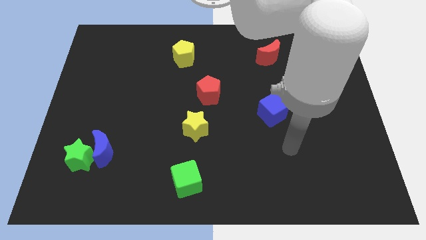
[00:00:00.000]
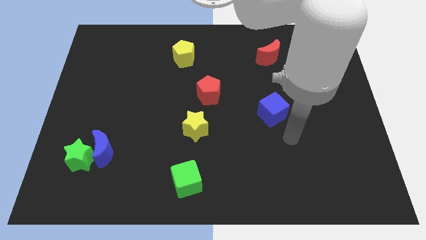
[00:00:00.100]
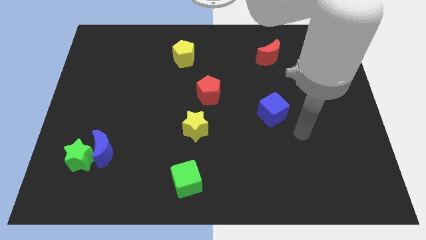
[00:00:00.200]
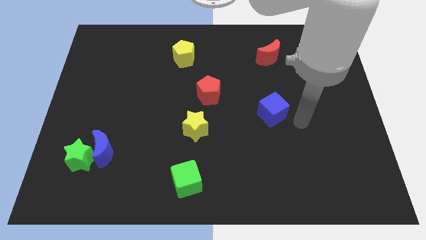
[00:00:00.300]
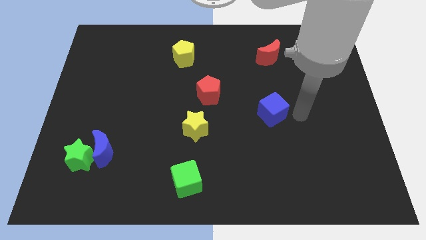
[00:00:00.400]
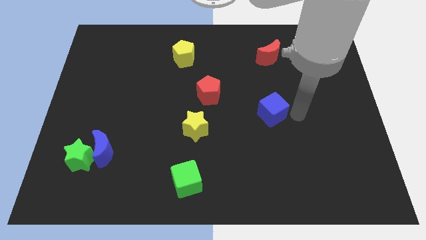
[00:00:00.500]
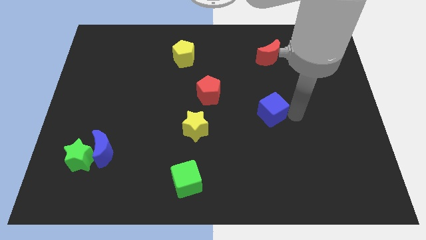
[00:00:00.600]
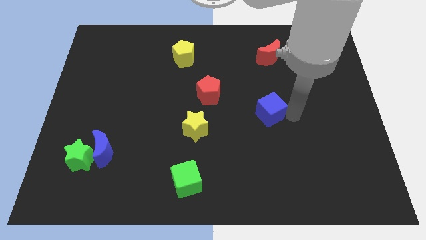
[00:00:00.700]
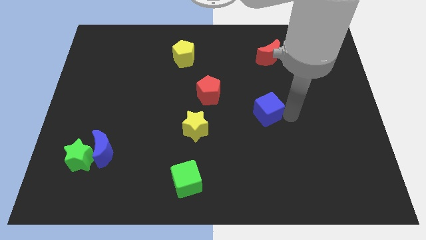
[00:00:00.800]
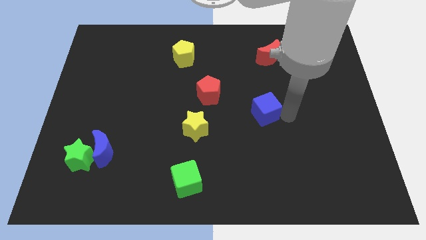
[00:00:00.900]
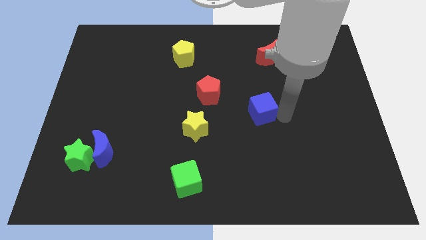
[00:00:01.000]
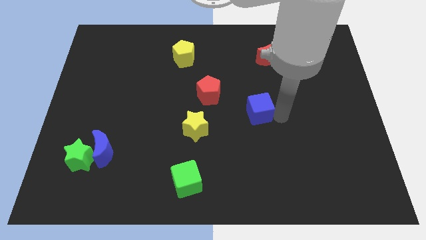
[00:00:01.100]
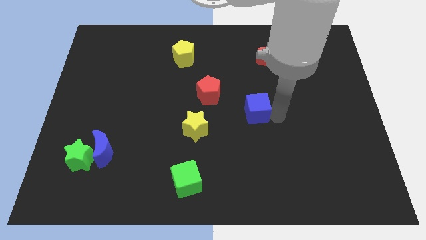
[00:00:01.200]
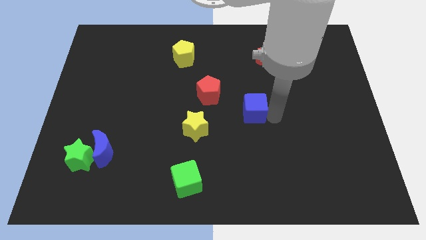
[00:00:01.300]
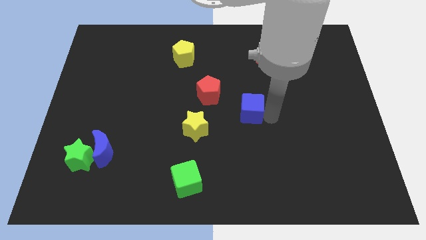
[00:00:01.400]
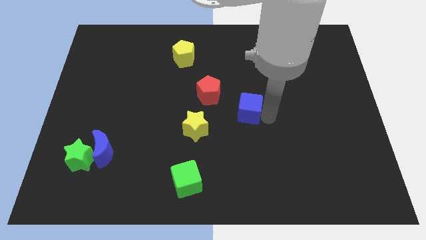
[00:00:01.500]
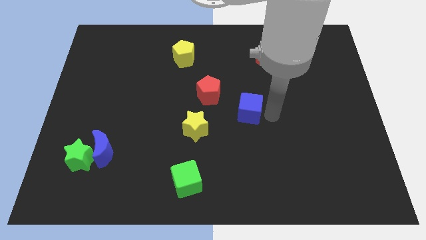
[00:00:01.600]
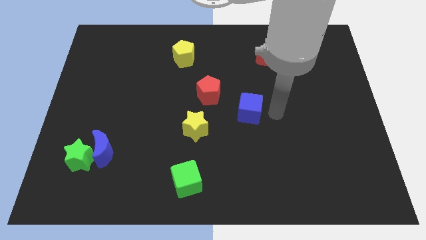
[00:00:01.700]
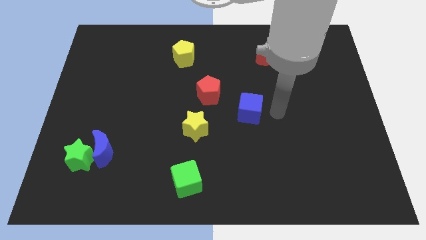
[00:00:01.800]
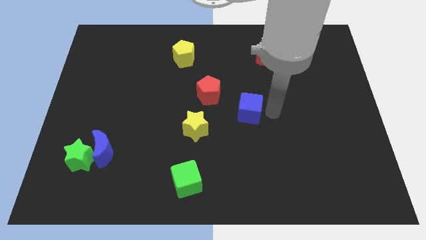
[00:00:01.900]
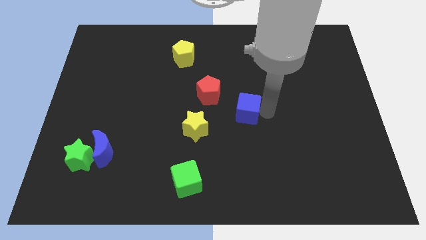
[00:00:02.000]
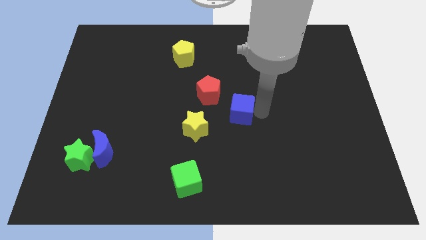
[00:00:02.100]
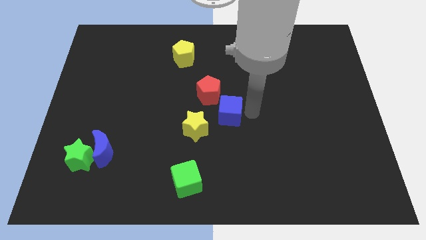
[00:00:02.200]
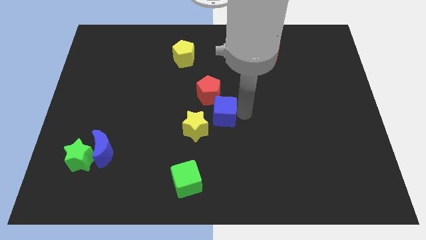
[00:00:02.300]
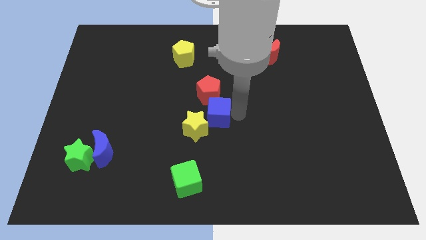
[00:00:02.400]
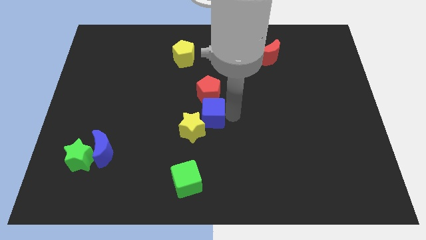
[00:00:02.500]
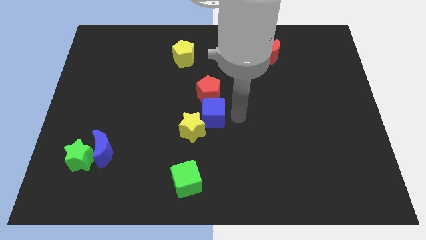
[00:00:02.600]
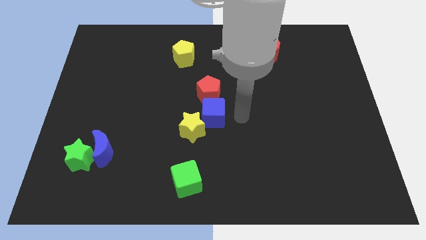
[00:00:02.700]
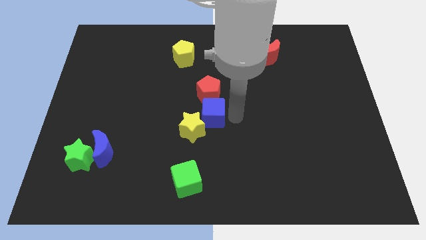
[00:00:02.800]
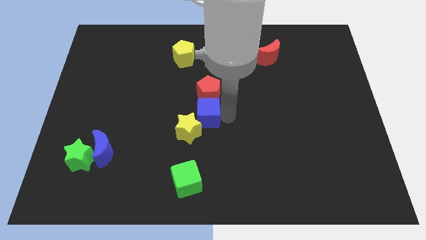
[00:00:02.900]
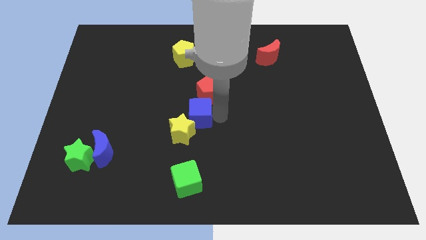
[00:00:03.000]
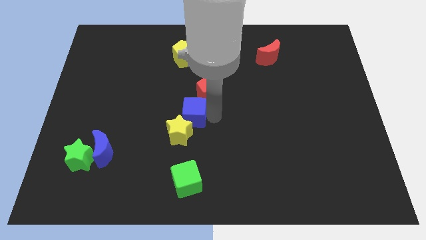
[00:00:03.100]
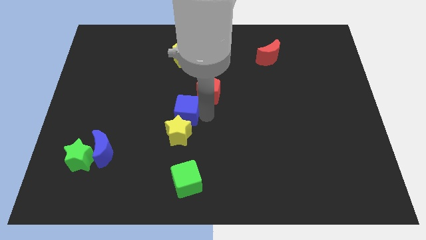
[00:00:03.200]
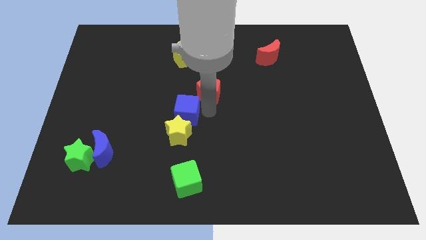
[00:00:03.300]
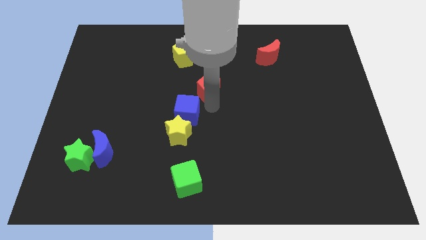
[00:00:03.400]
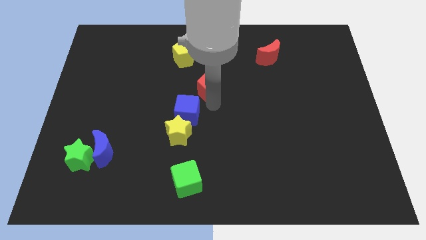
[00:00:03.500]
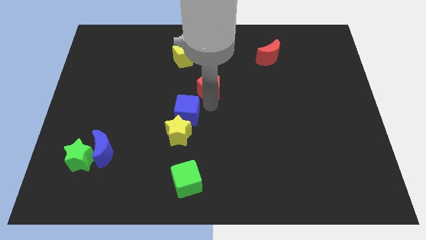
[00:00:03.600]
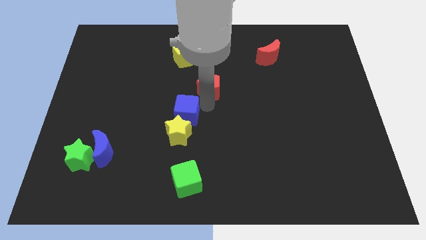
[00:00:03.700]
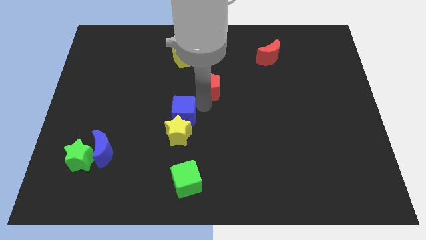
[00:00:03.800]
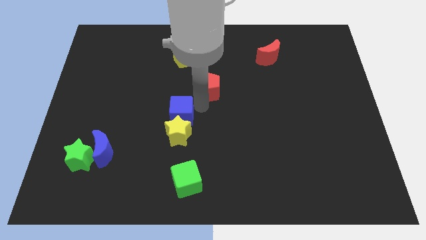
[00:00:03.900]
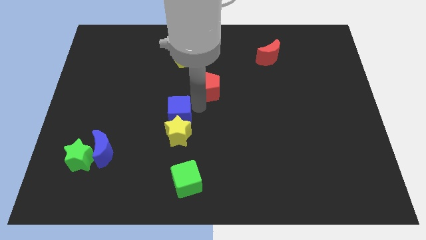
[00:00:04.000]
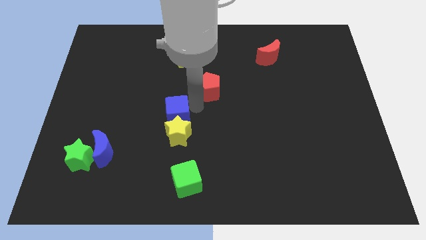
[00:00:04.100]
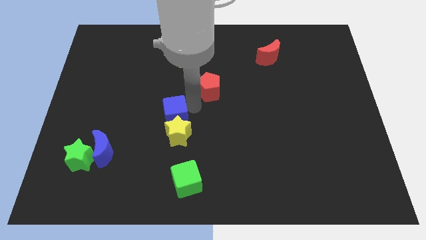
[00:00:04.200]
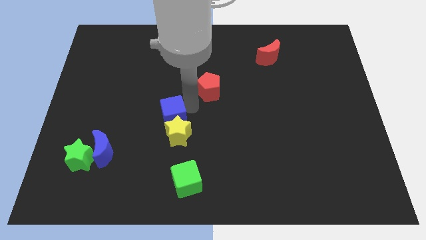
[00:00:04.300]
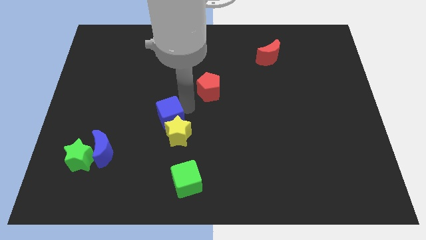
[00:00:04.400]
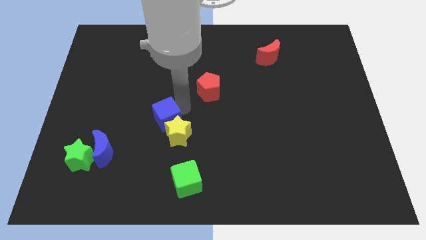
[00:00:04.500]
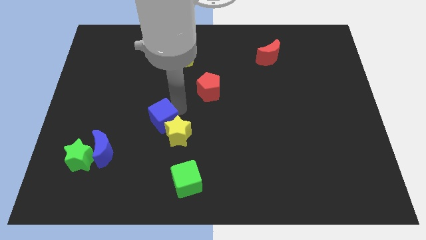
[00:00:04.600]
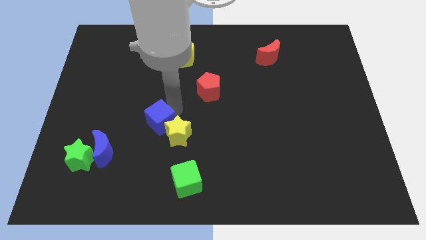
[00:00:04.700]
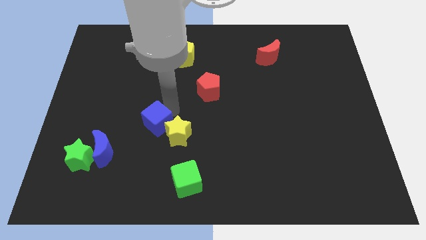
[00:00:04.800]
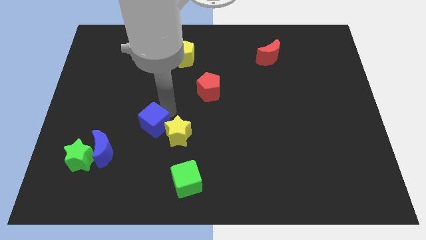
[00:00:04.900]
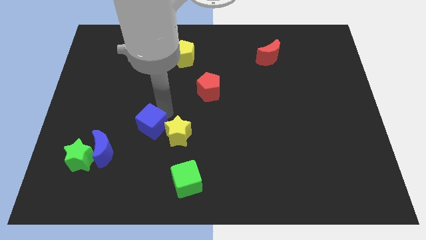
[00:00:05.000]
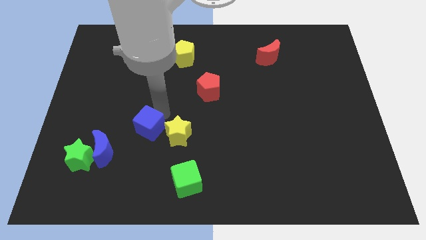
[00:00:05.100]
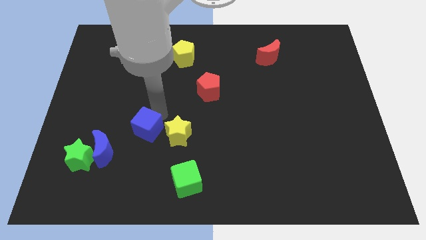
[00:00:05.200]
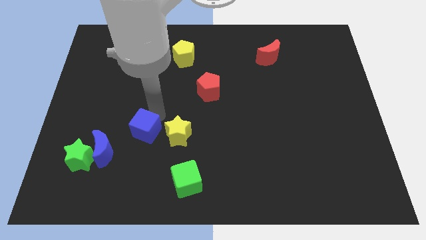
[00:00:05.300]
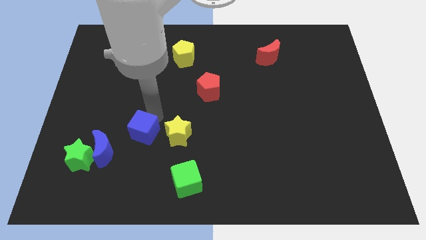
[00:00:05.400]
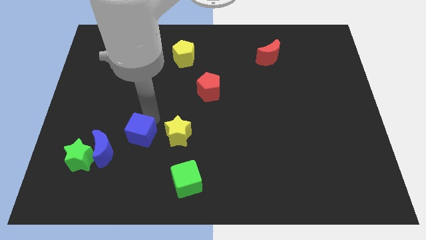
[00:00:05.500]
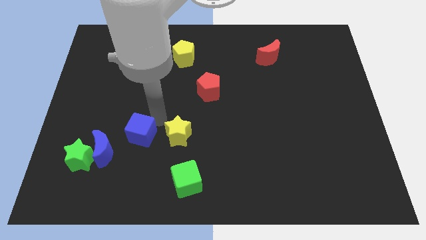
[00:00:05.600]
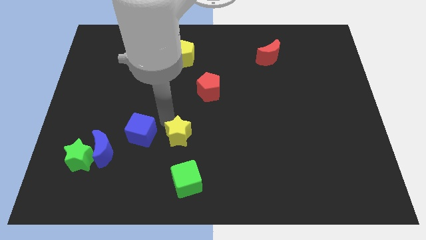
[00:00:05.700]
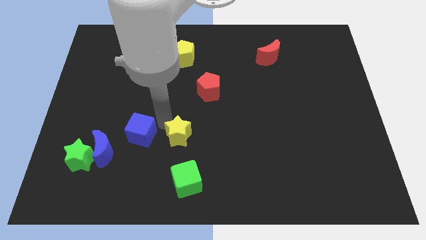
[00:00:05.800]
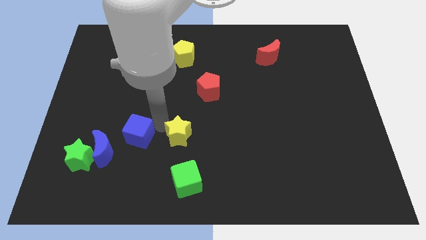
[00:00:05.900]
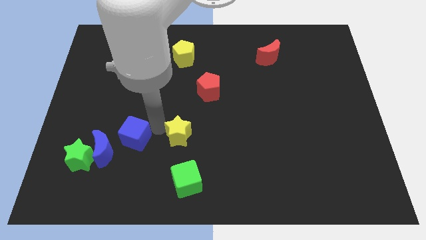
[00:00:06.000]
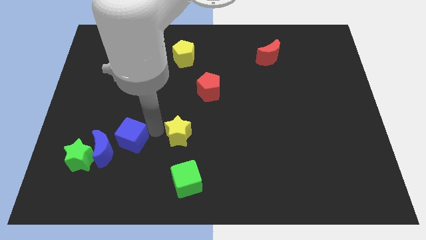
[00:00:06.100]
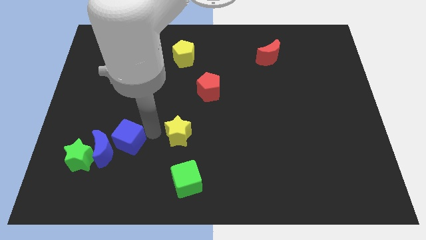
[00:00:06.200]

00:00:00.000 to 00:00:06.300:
put the blue cube next to the blue moon
